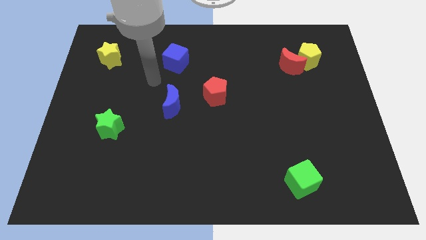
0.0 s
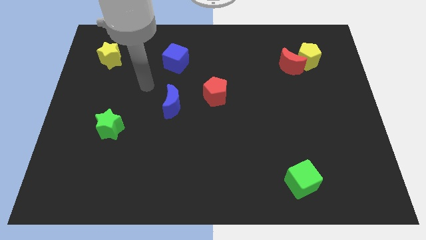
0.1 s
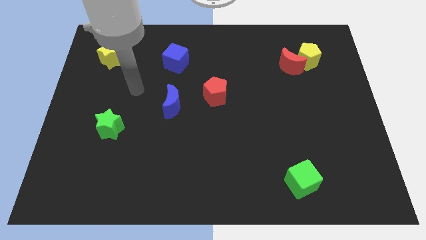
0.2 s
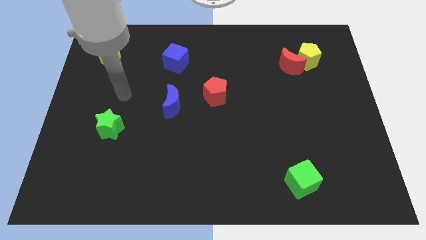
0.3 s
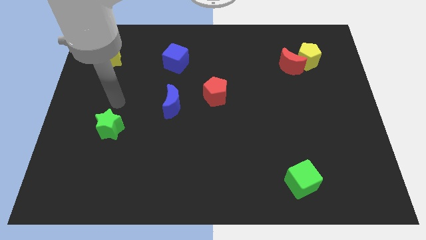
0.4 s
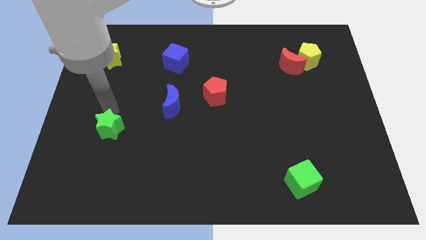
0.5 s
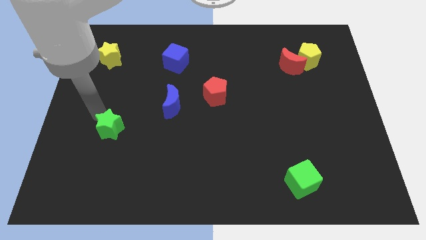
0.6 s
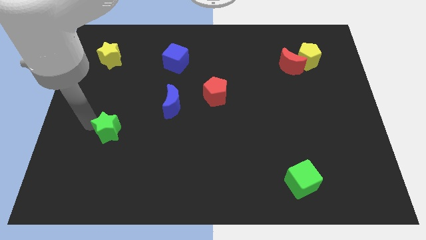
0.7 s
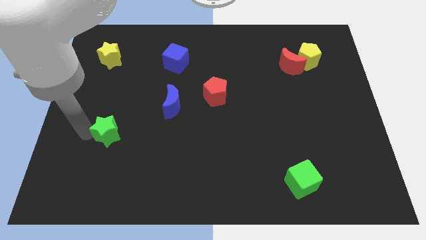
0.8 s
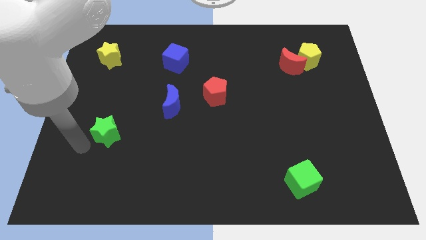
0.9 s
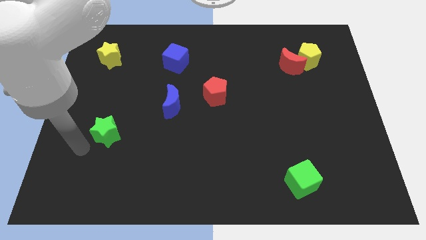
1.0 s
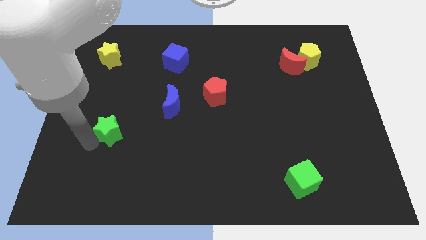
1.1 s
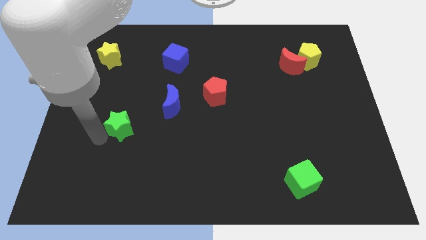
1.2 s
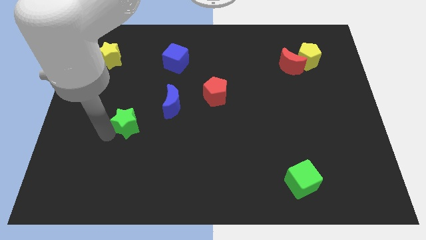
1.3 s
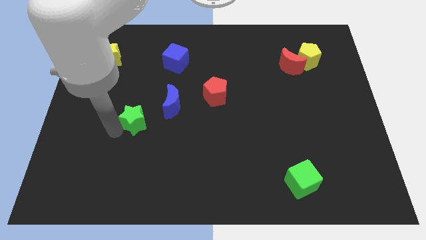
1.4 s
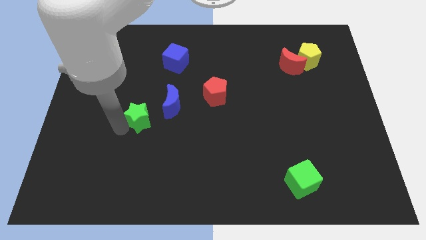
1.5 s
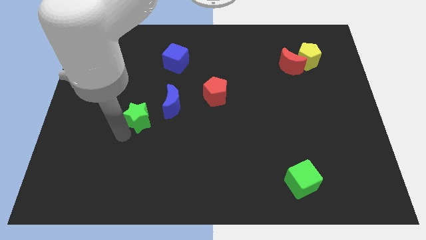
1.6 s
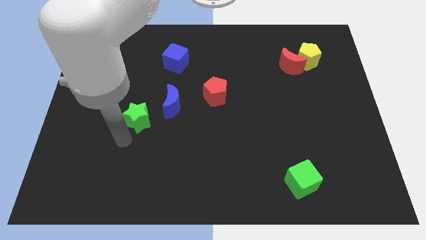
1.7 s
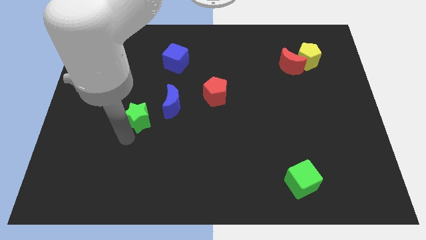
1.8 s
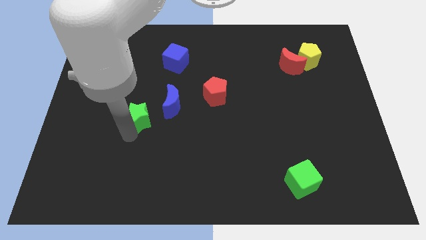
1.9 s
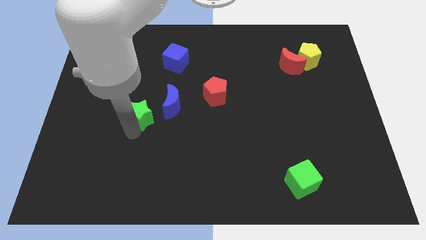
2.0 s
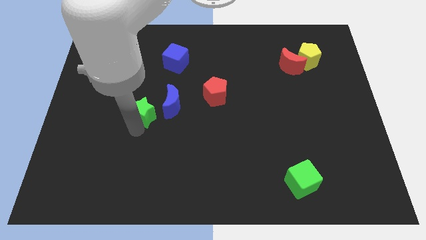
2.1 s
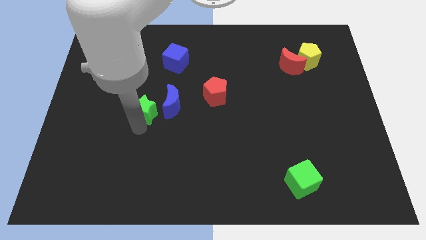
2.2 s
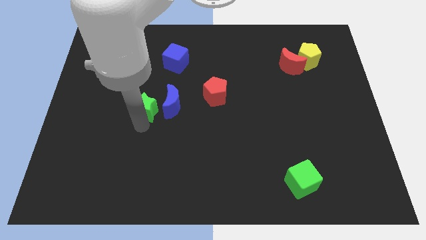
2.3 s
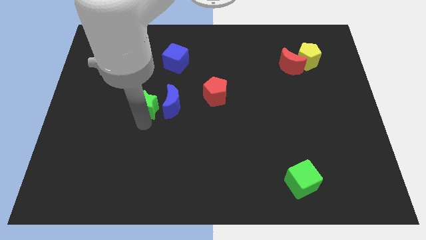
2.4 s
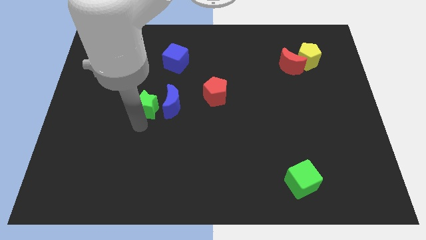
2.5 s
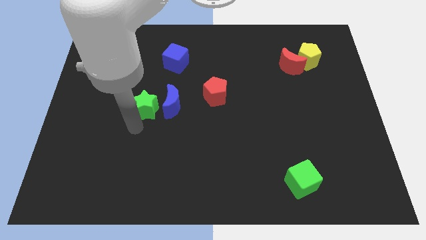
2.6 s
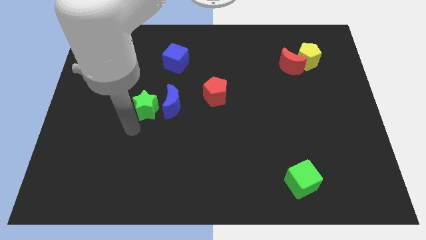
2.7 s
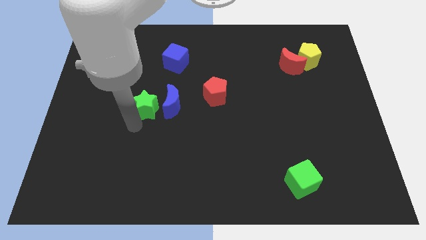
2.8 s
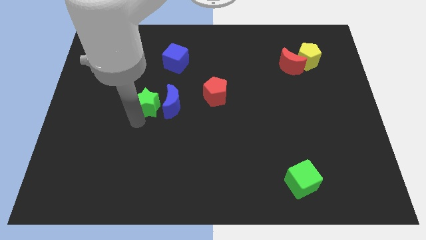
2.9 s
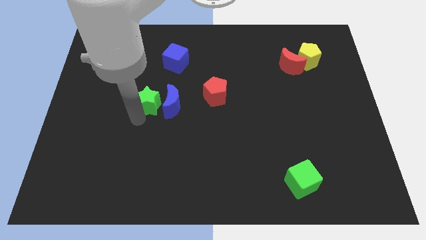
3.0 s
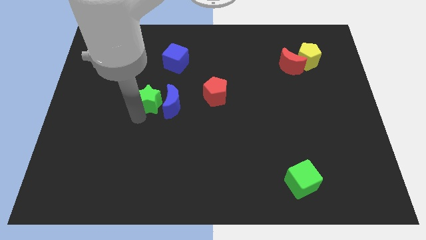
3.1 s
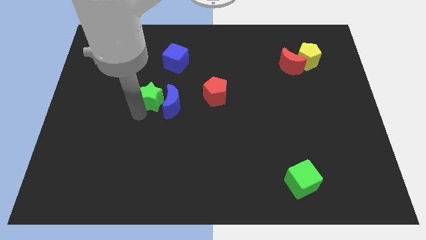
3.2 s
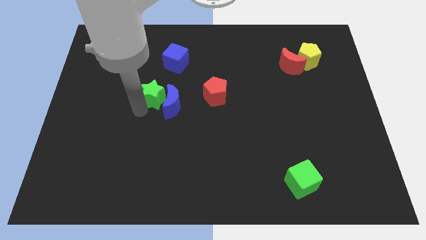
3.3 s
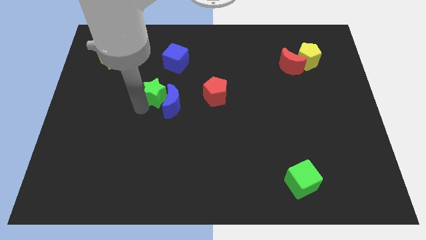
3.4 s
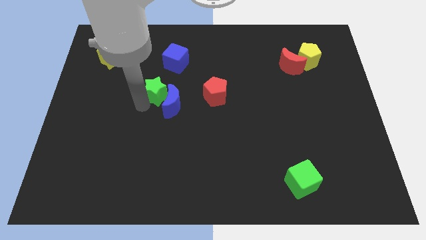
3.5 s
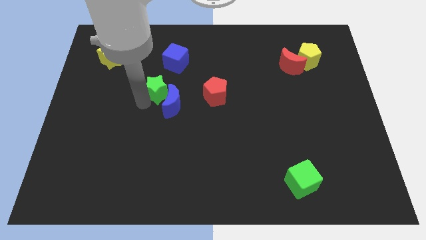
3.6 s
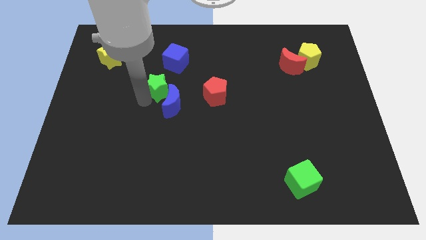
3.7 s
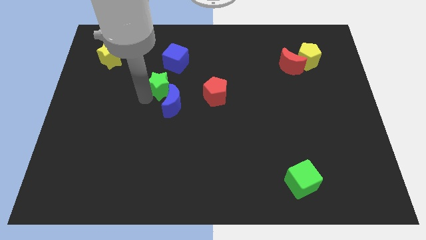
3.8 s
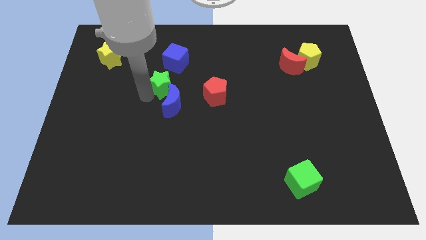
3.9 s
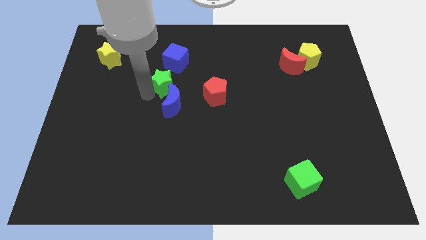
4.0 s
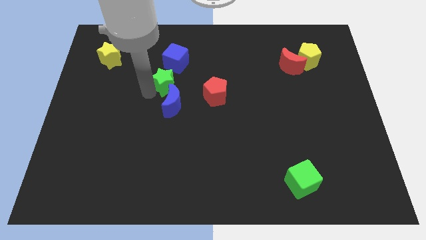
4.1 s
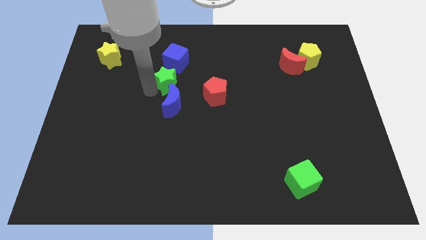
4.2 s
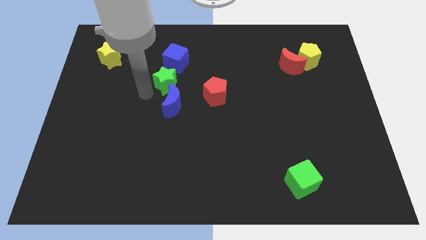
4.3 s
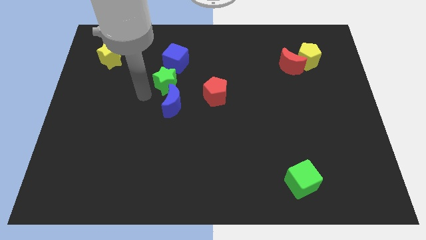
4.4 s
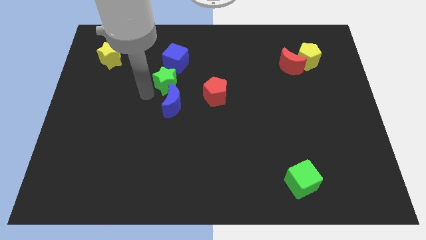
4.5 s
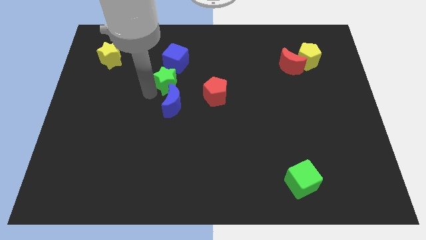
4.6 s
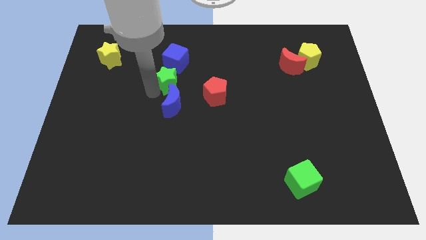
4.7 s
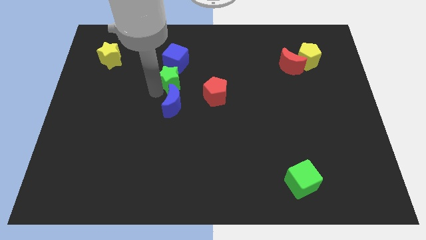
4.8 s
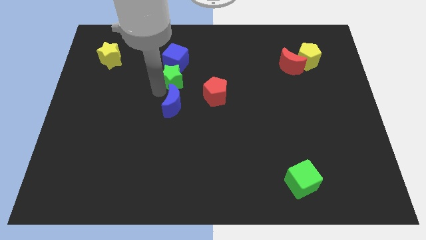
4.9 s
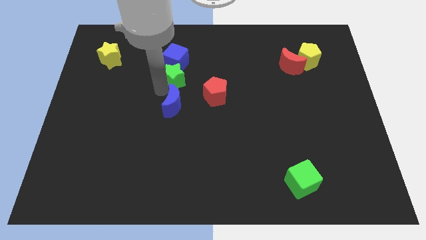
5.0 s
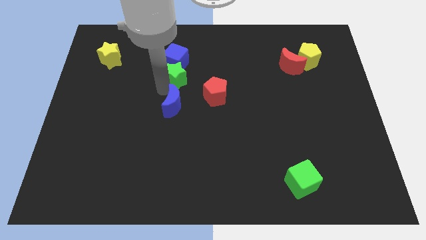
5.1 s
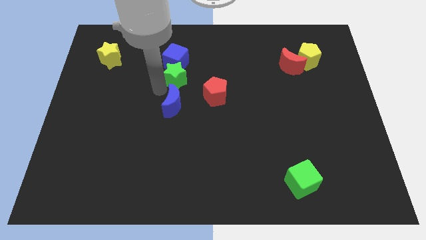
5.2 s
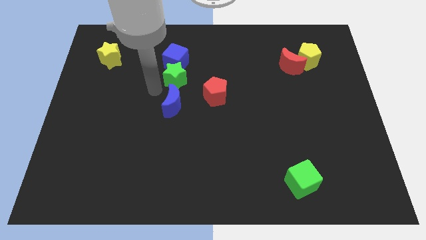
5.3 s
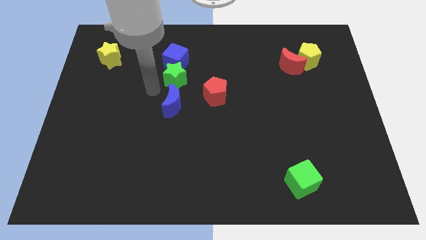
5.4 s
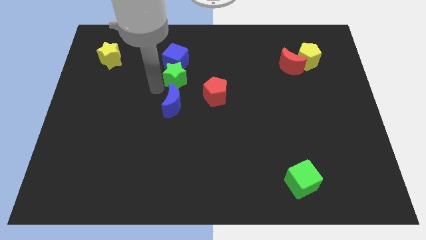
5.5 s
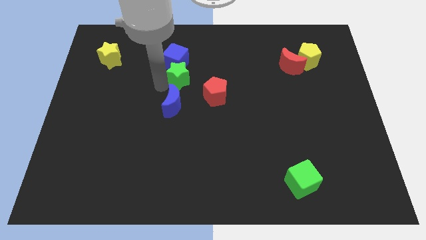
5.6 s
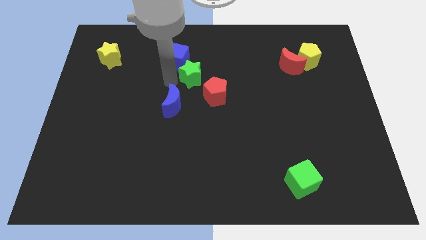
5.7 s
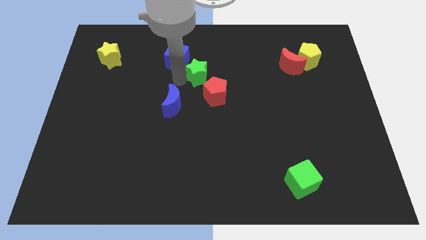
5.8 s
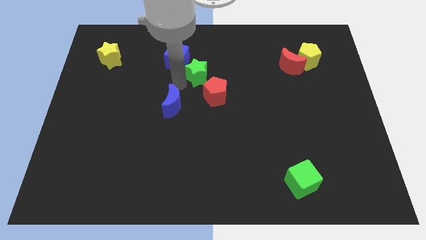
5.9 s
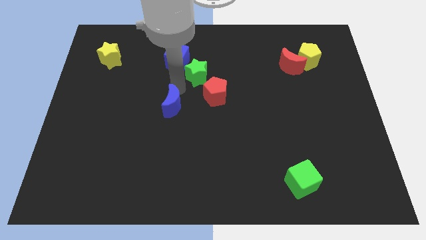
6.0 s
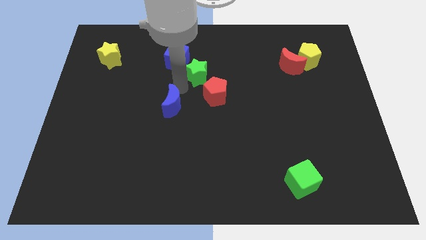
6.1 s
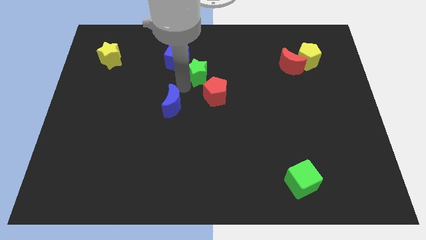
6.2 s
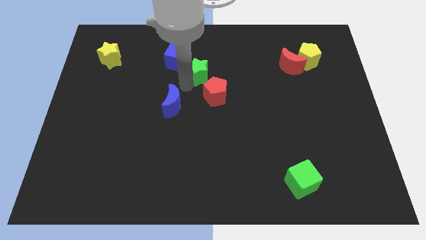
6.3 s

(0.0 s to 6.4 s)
move the green star just right of the blue cube
